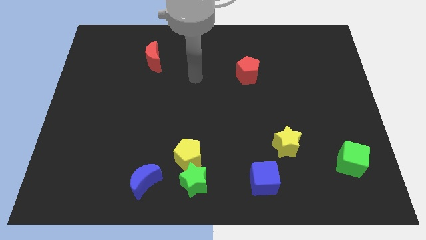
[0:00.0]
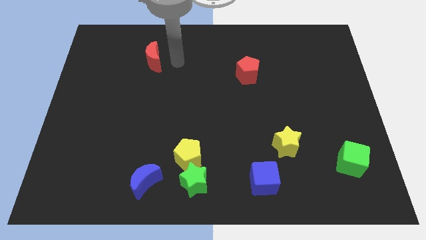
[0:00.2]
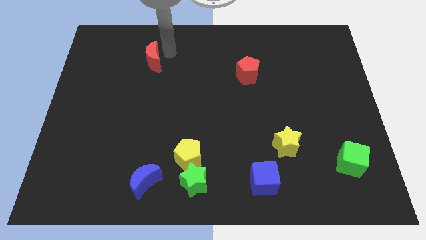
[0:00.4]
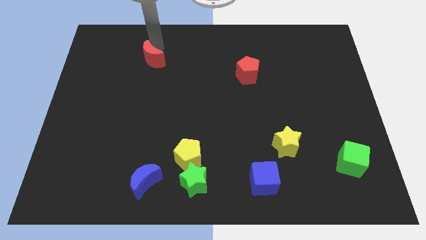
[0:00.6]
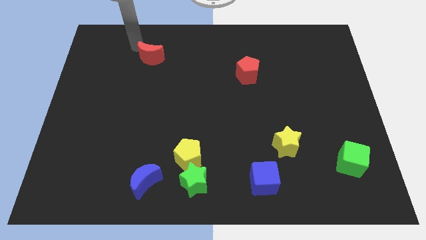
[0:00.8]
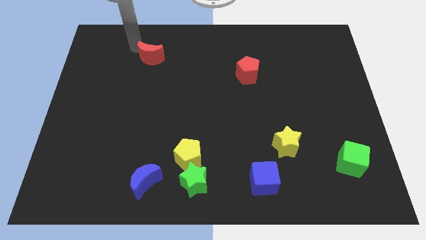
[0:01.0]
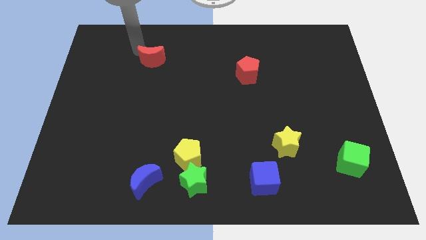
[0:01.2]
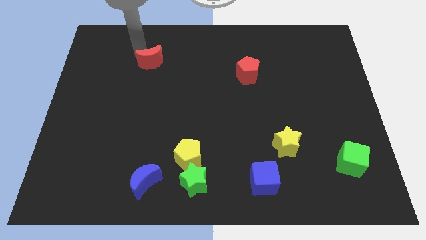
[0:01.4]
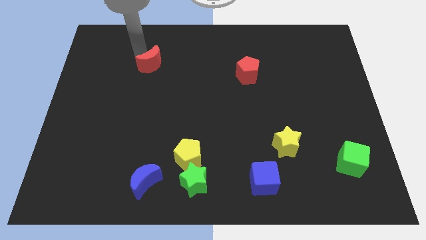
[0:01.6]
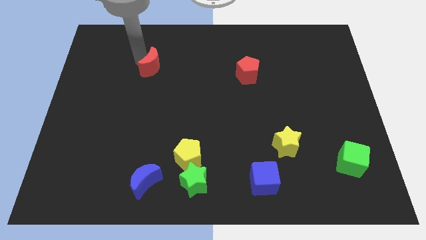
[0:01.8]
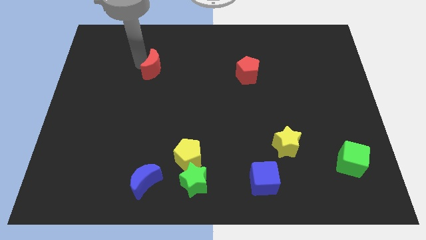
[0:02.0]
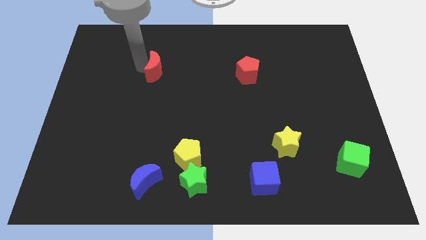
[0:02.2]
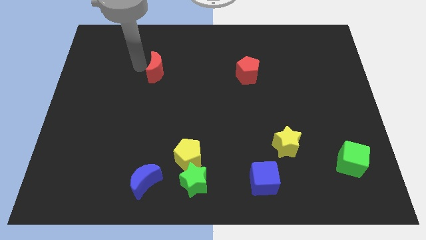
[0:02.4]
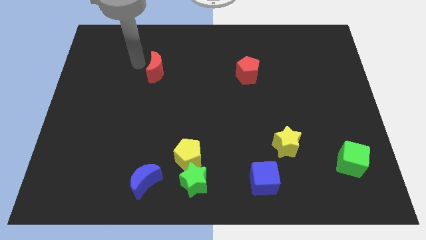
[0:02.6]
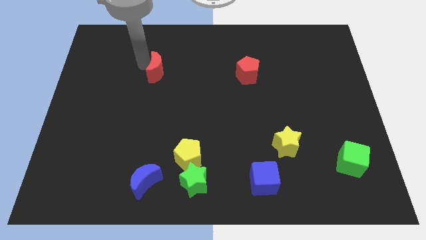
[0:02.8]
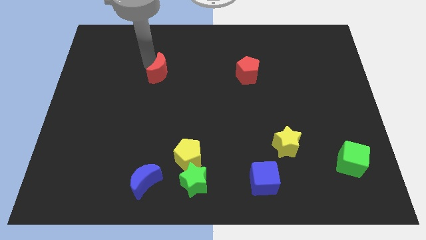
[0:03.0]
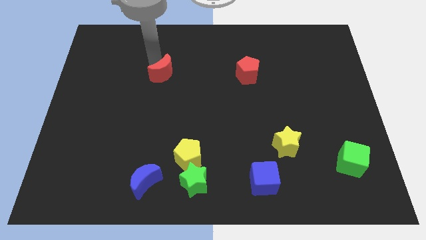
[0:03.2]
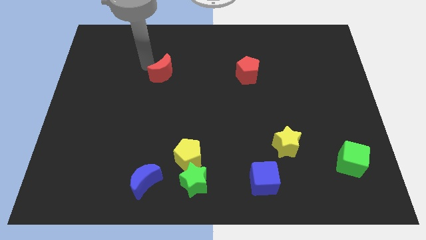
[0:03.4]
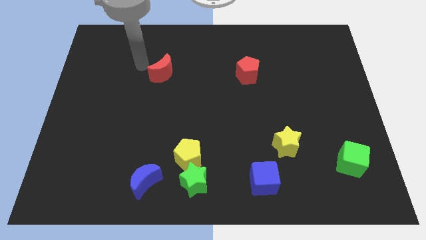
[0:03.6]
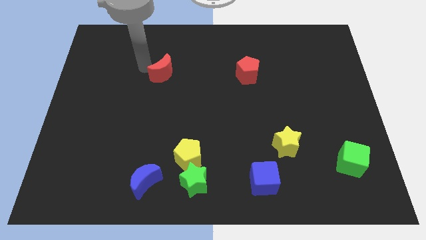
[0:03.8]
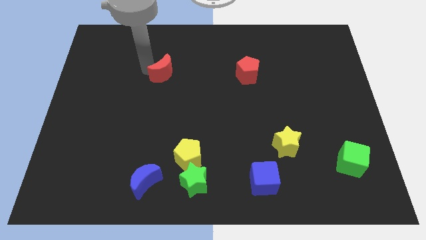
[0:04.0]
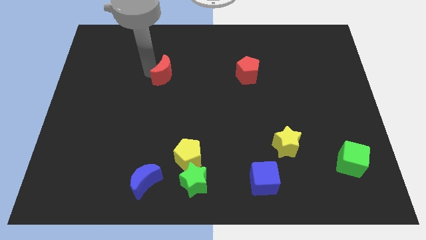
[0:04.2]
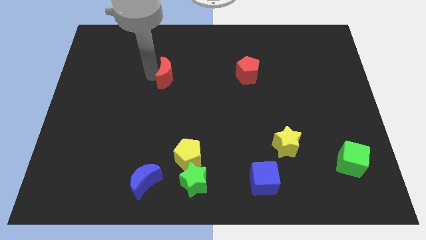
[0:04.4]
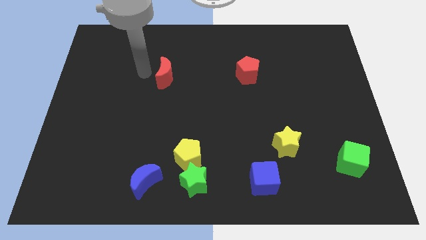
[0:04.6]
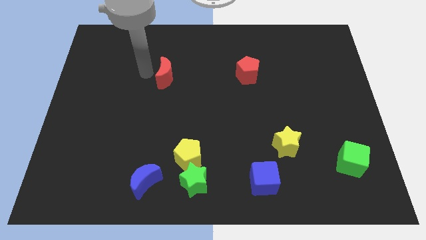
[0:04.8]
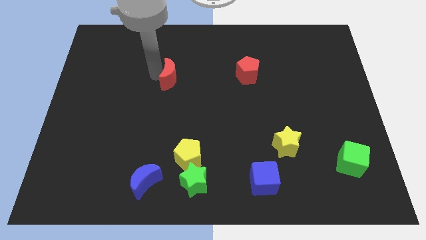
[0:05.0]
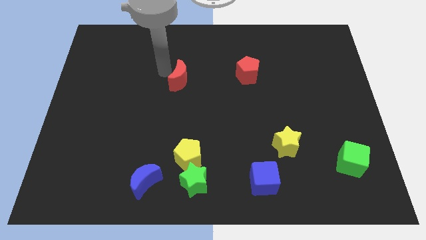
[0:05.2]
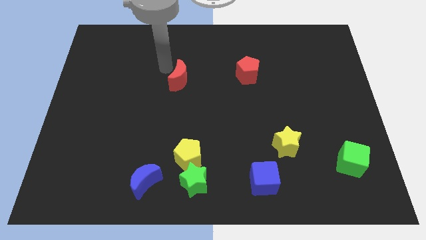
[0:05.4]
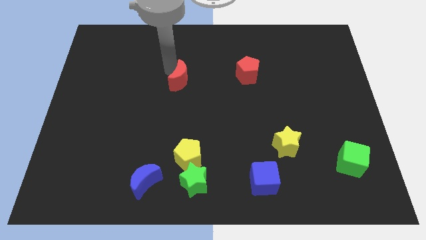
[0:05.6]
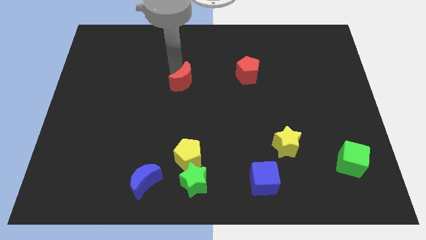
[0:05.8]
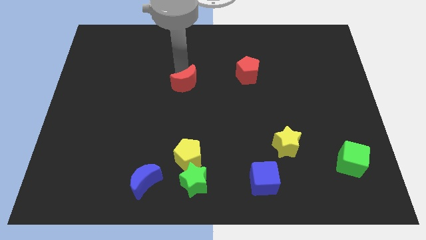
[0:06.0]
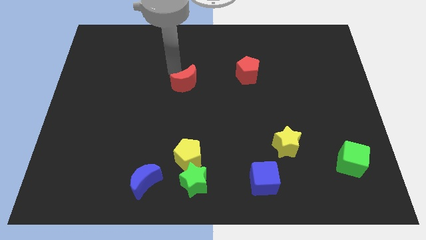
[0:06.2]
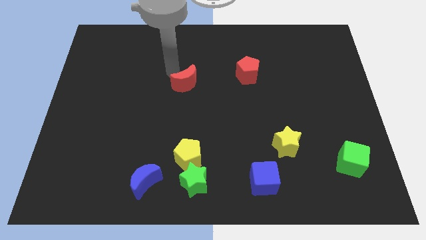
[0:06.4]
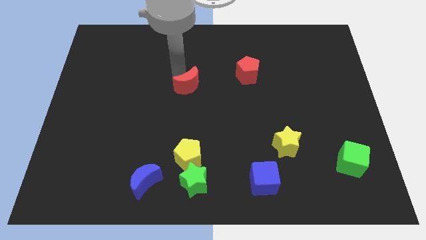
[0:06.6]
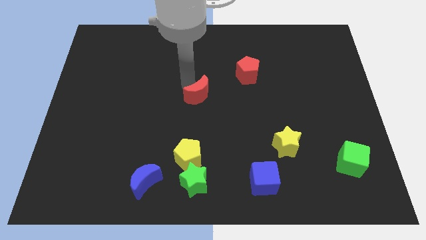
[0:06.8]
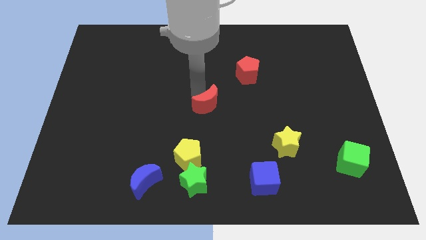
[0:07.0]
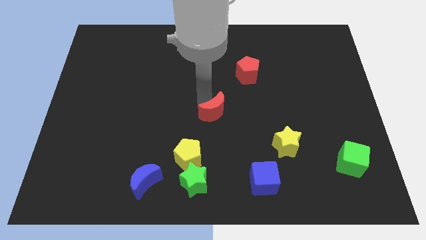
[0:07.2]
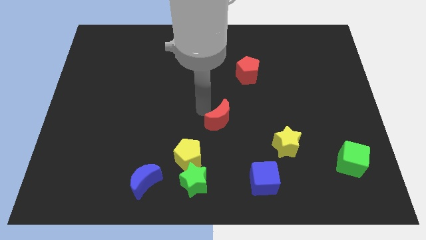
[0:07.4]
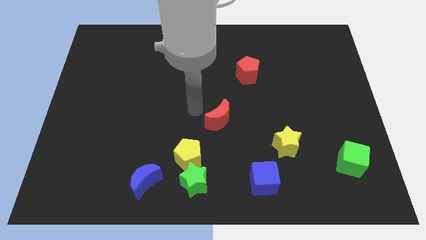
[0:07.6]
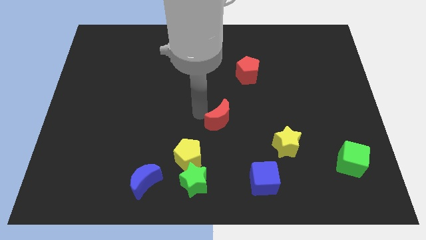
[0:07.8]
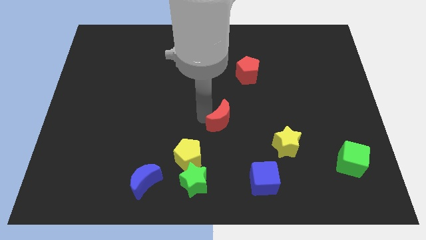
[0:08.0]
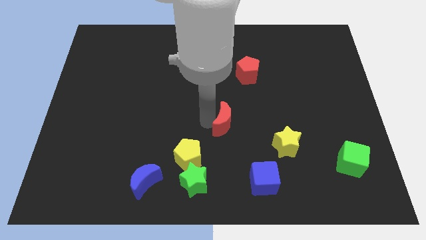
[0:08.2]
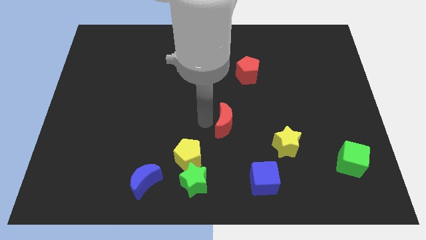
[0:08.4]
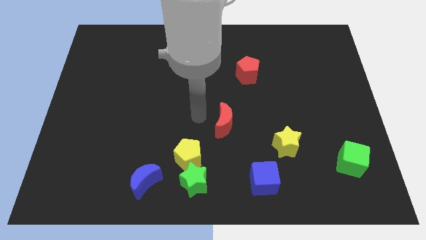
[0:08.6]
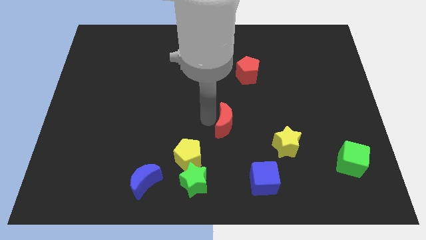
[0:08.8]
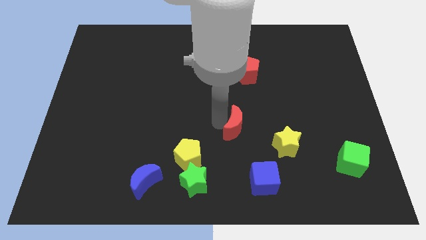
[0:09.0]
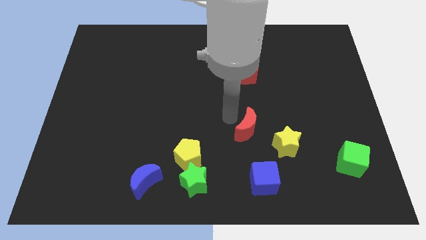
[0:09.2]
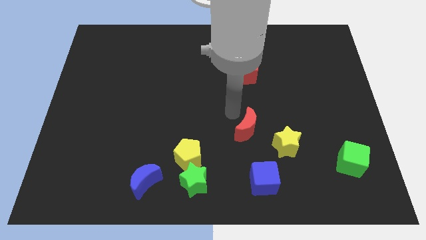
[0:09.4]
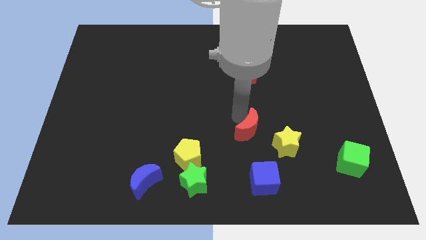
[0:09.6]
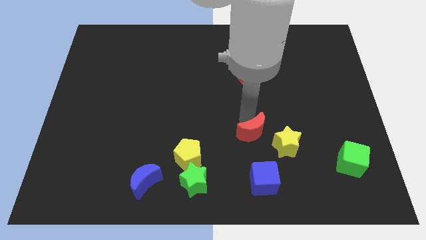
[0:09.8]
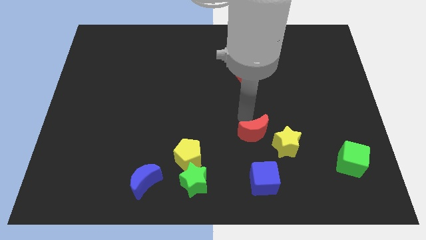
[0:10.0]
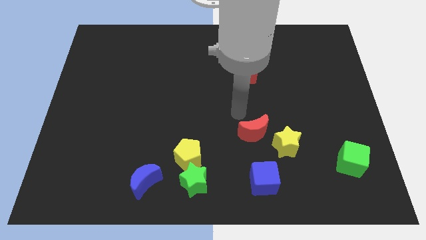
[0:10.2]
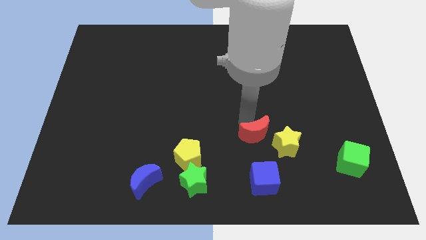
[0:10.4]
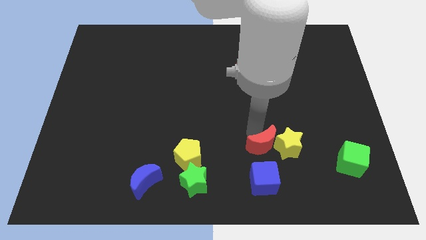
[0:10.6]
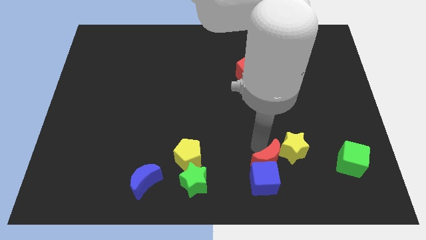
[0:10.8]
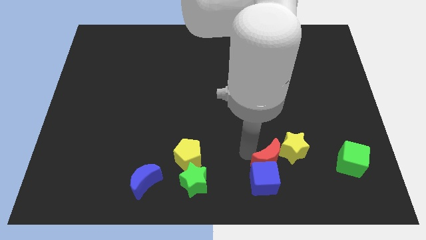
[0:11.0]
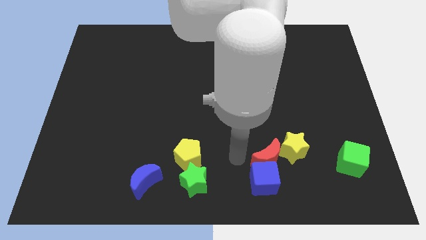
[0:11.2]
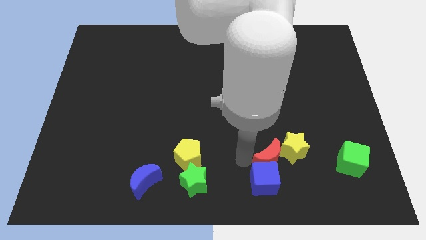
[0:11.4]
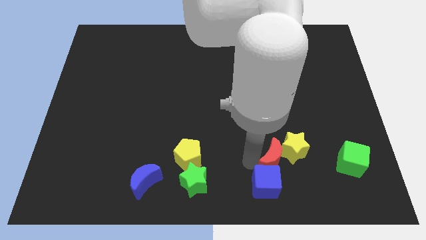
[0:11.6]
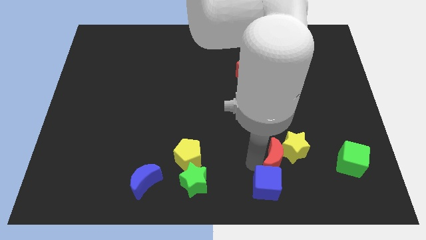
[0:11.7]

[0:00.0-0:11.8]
push the red moon to the left of the green cube
